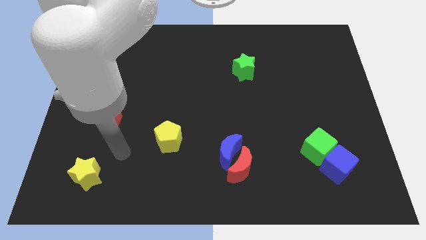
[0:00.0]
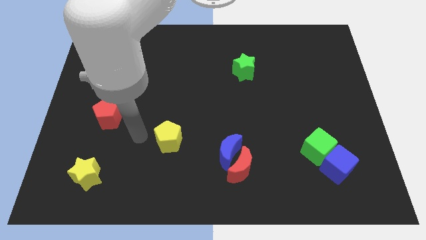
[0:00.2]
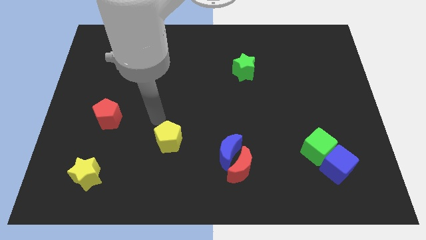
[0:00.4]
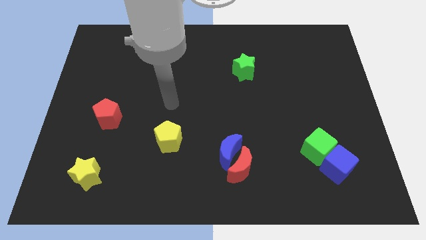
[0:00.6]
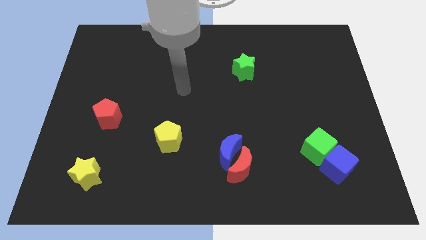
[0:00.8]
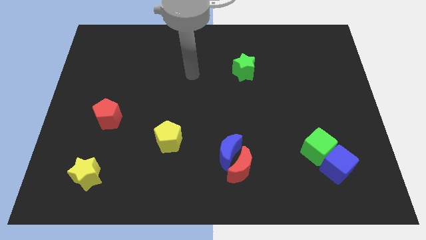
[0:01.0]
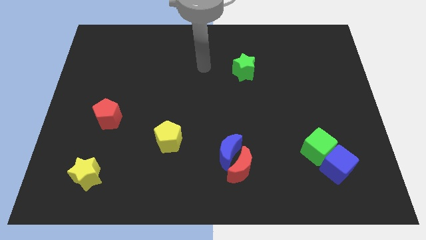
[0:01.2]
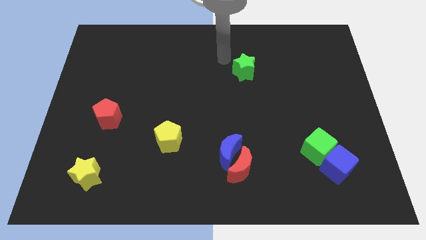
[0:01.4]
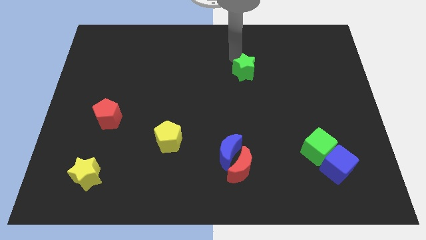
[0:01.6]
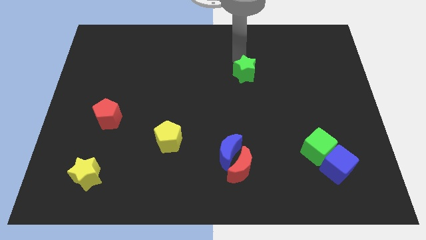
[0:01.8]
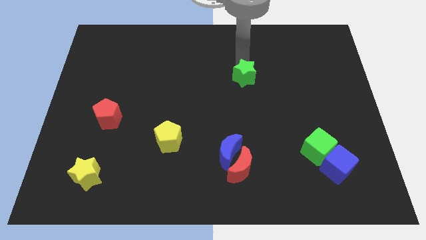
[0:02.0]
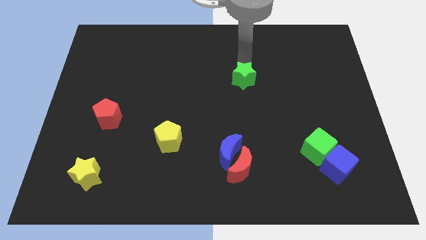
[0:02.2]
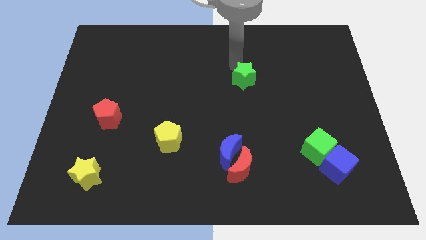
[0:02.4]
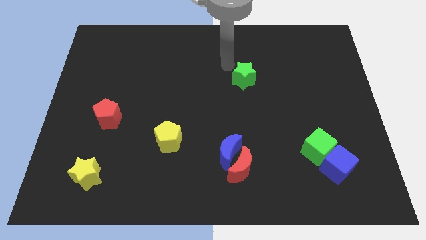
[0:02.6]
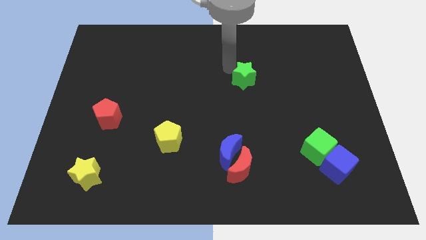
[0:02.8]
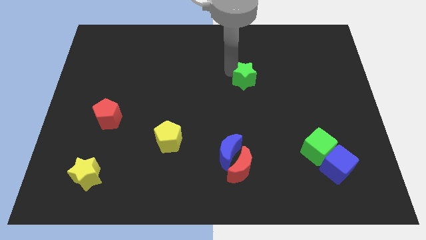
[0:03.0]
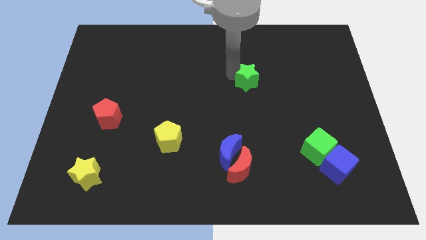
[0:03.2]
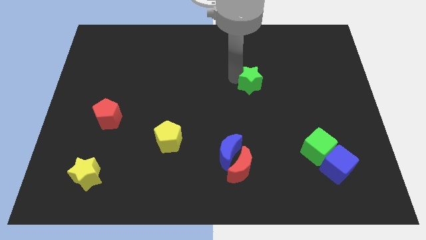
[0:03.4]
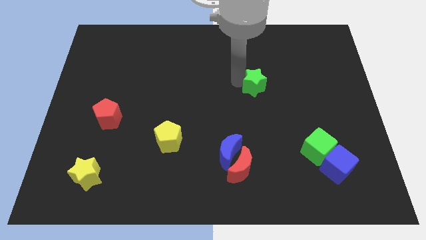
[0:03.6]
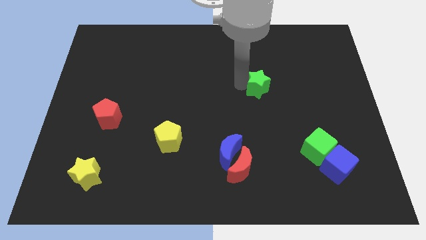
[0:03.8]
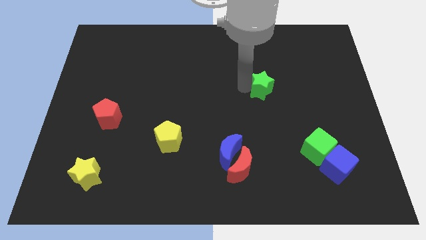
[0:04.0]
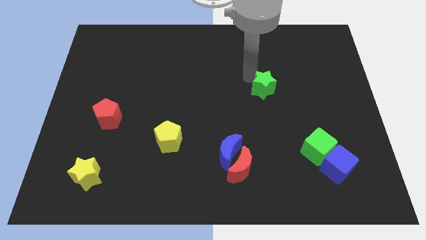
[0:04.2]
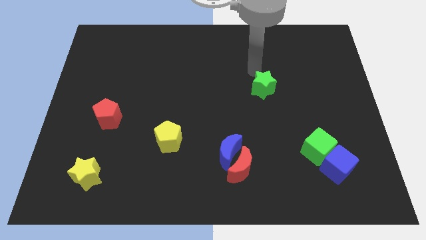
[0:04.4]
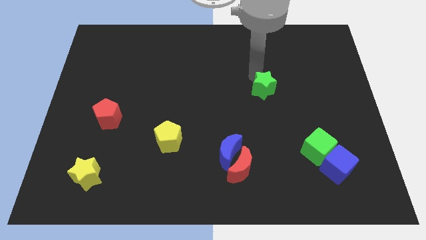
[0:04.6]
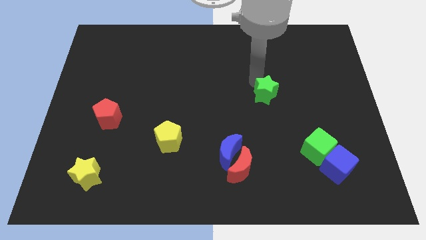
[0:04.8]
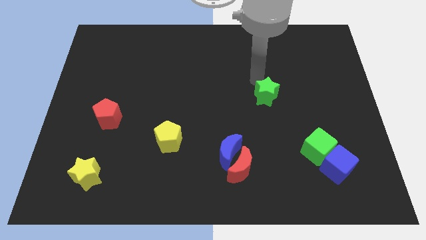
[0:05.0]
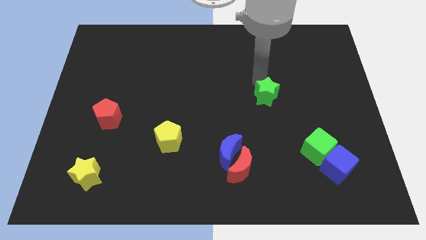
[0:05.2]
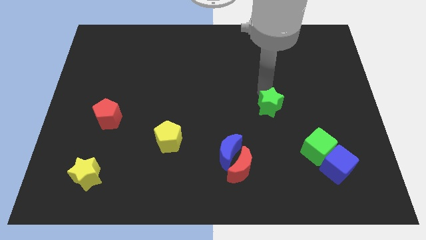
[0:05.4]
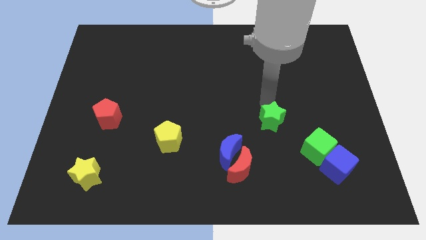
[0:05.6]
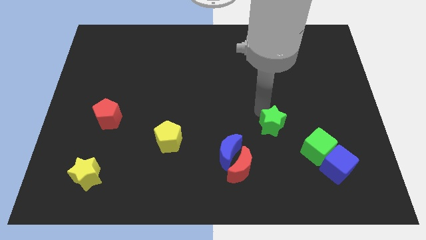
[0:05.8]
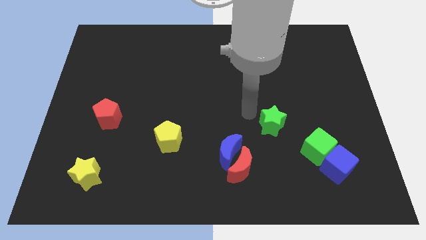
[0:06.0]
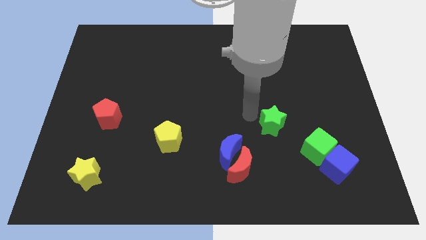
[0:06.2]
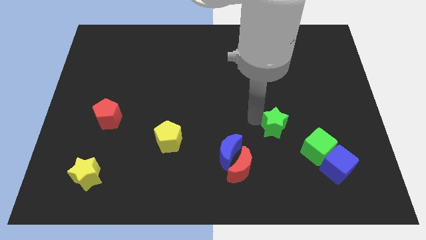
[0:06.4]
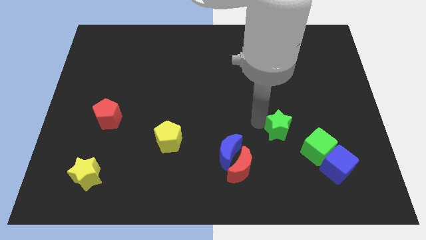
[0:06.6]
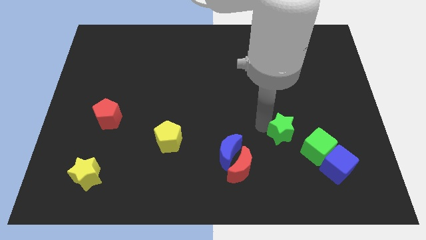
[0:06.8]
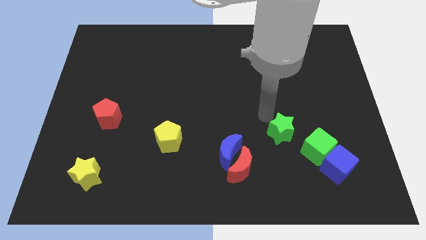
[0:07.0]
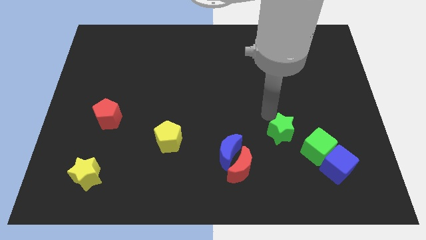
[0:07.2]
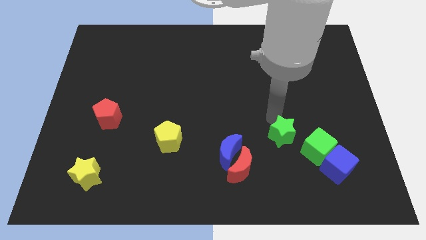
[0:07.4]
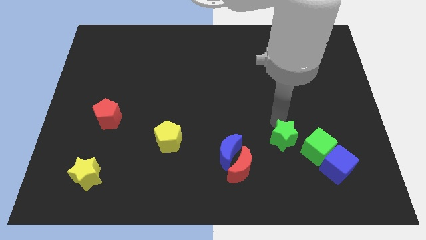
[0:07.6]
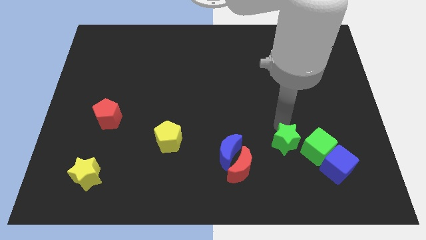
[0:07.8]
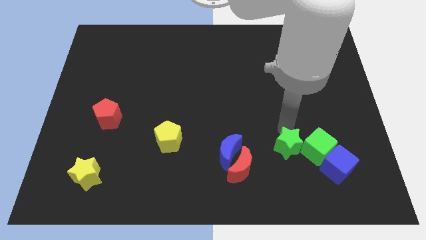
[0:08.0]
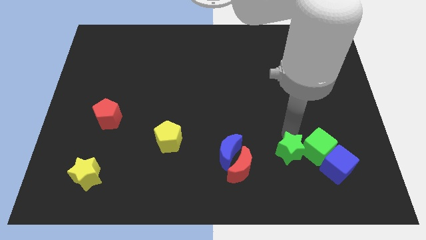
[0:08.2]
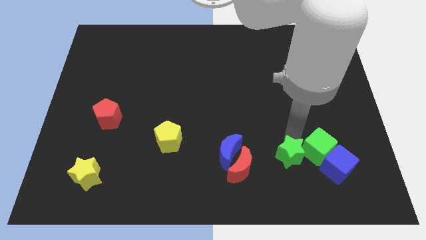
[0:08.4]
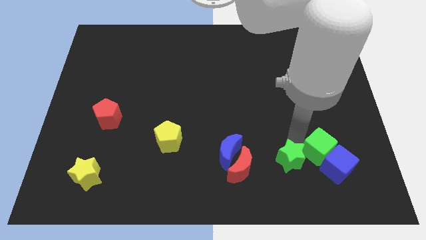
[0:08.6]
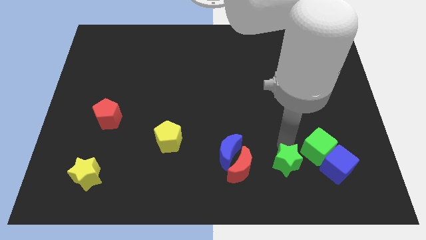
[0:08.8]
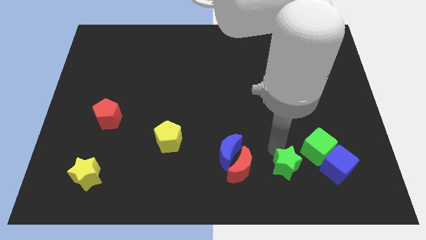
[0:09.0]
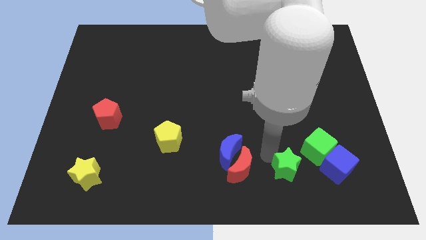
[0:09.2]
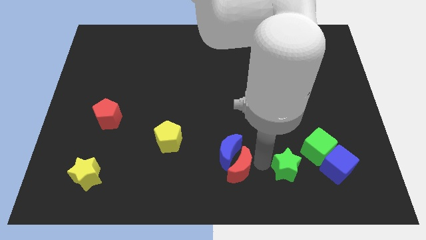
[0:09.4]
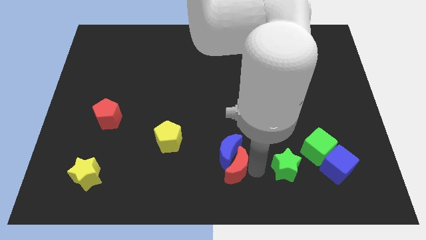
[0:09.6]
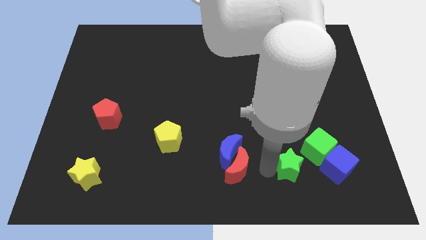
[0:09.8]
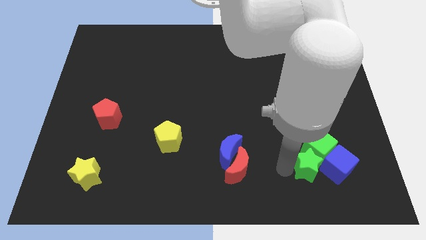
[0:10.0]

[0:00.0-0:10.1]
move the green star close to the blue cube

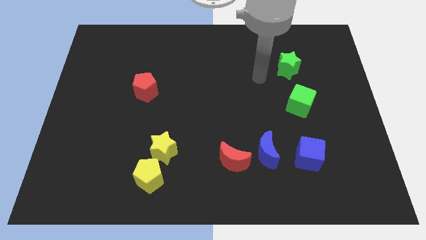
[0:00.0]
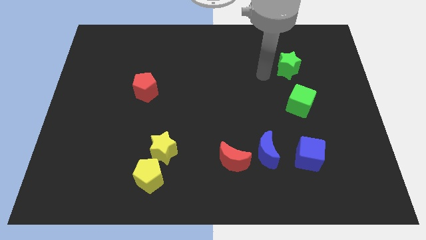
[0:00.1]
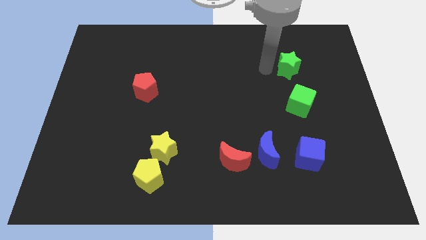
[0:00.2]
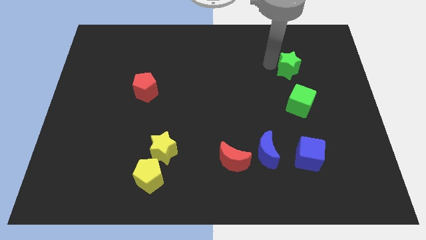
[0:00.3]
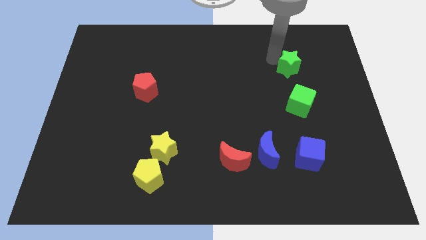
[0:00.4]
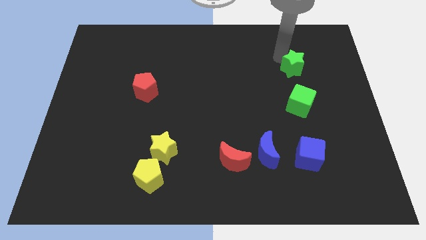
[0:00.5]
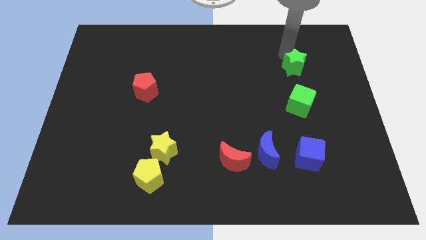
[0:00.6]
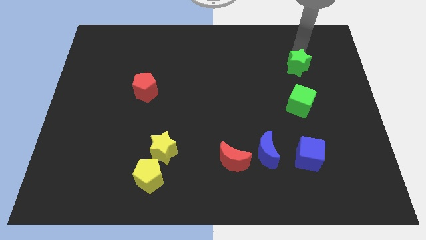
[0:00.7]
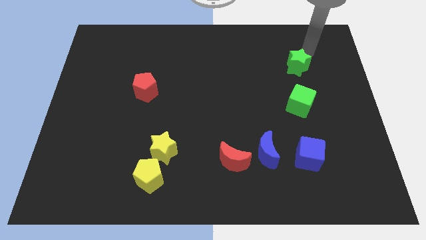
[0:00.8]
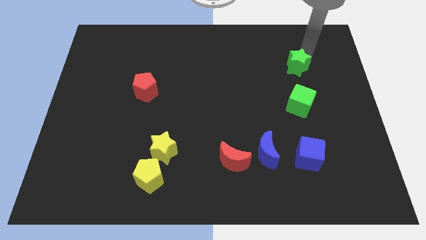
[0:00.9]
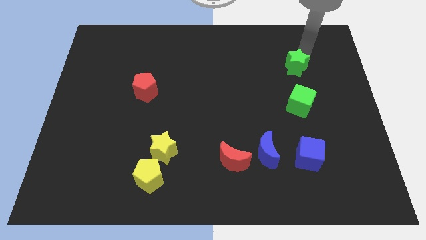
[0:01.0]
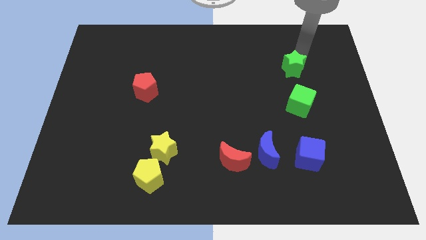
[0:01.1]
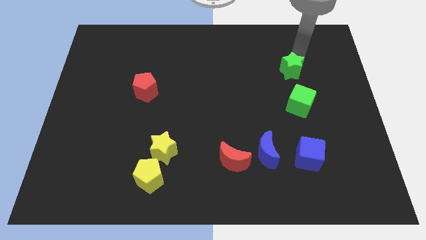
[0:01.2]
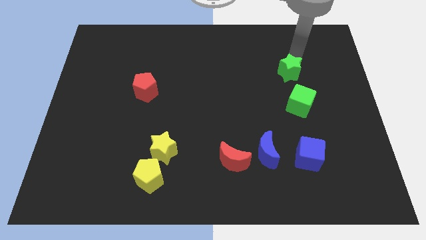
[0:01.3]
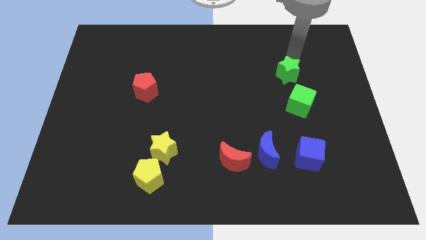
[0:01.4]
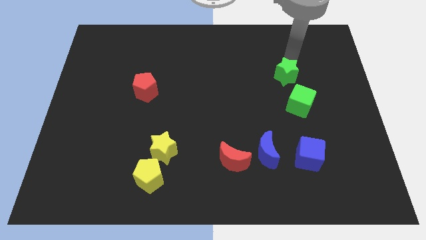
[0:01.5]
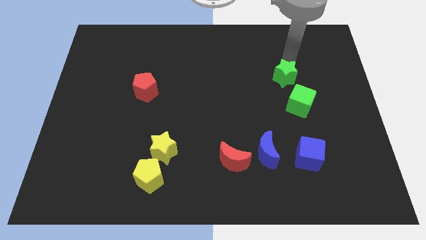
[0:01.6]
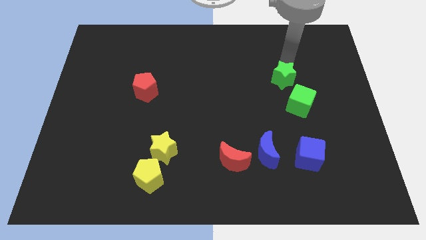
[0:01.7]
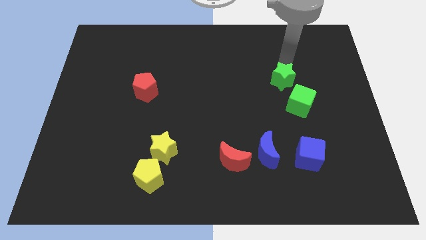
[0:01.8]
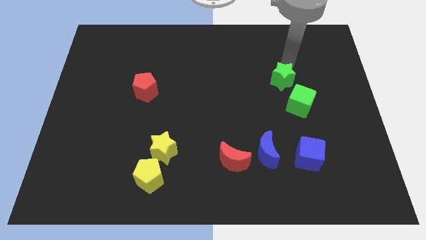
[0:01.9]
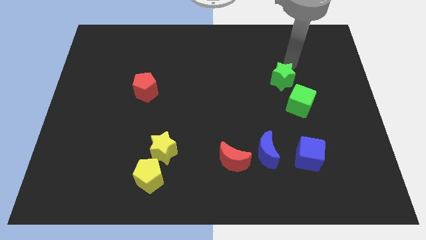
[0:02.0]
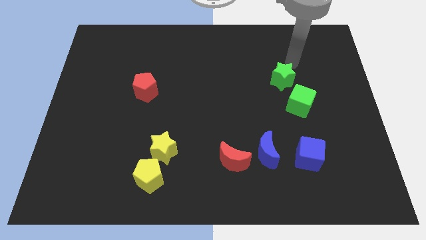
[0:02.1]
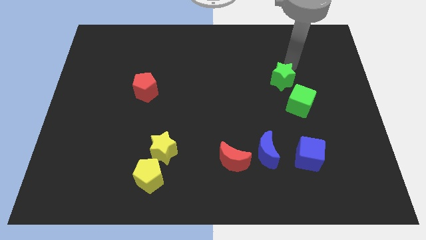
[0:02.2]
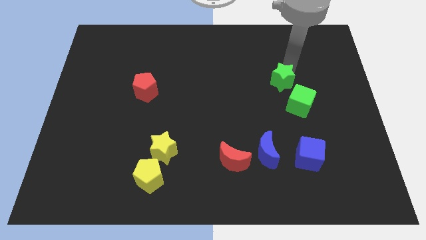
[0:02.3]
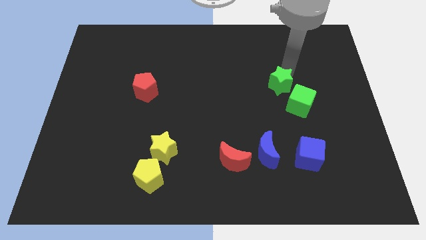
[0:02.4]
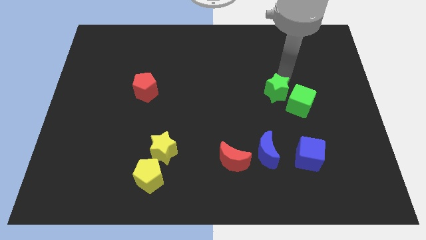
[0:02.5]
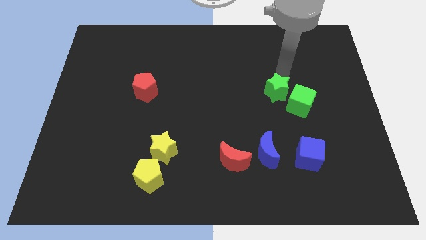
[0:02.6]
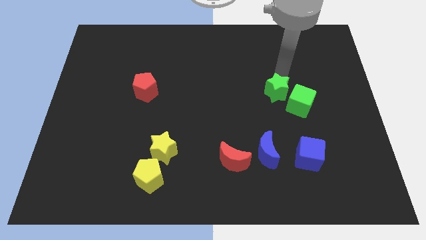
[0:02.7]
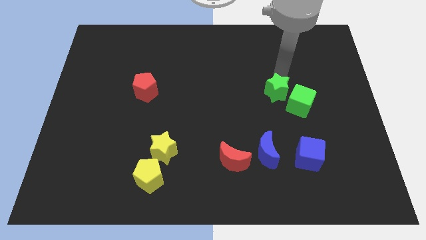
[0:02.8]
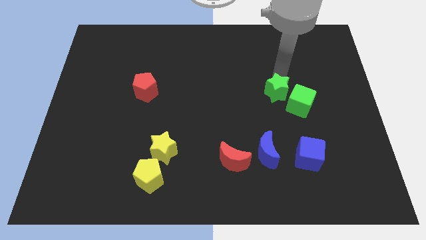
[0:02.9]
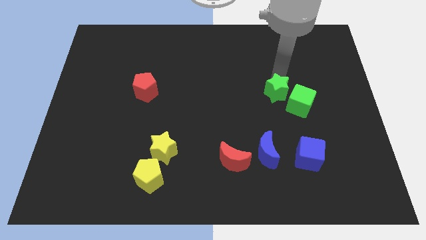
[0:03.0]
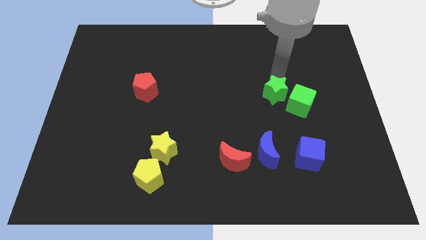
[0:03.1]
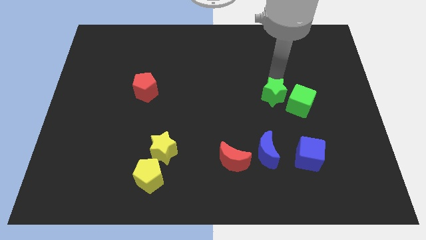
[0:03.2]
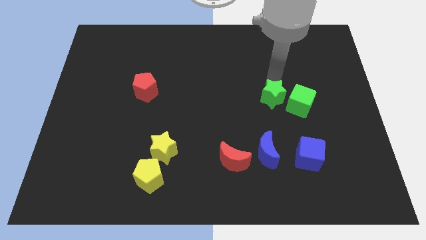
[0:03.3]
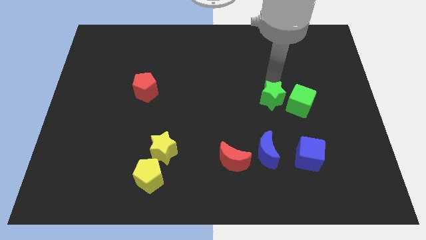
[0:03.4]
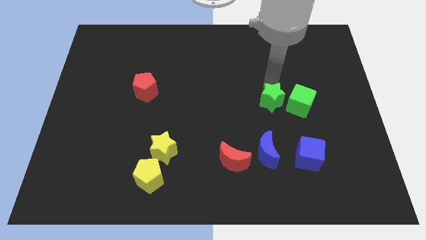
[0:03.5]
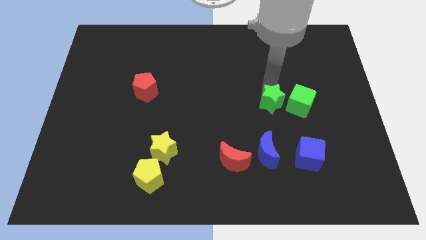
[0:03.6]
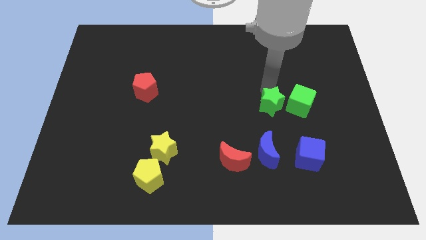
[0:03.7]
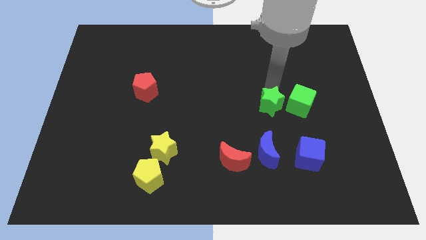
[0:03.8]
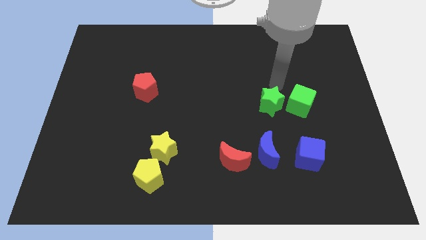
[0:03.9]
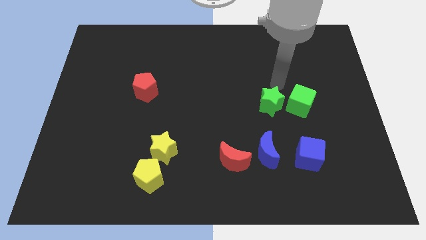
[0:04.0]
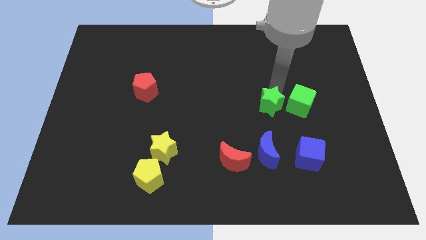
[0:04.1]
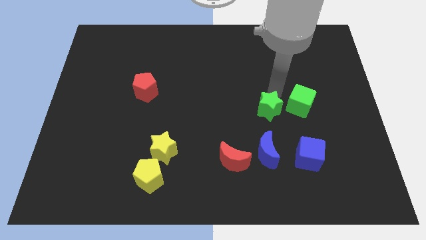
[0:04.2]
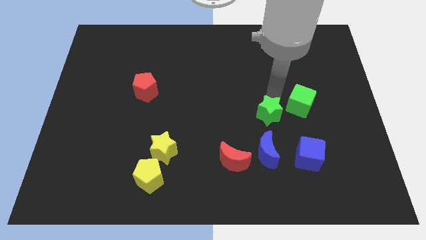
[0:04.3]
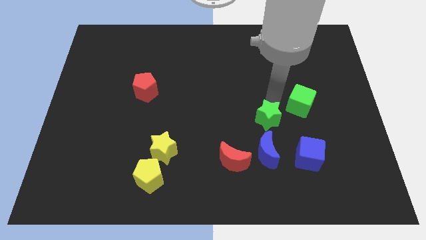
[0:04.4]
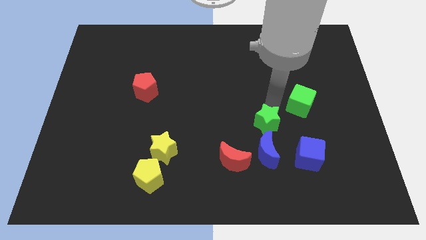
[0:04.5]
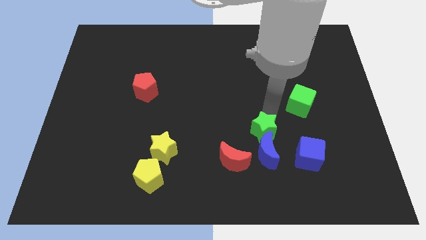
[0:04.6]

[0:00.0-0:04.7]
put the green star towards the blue moon
